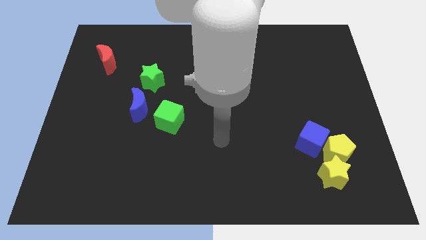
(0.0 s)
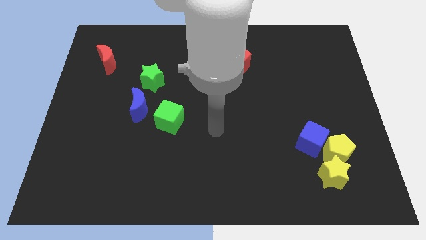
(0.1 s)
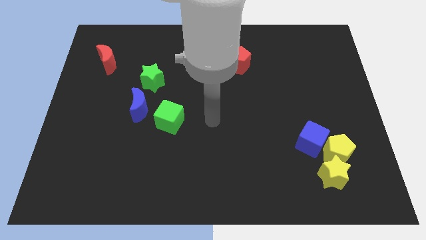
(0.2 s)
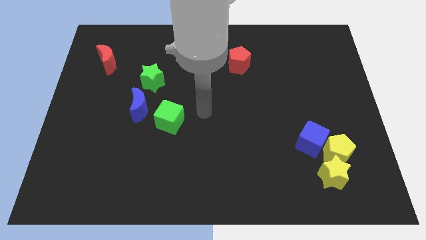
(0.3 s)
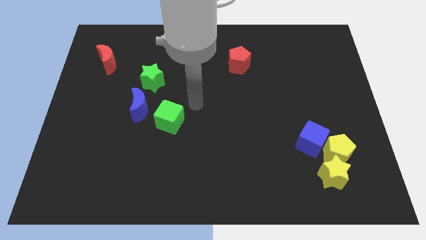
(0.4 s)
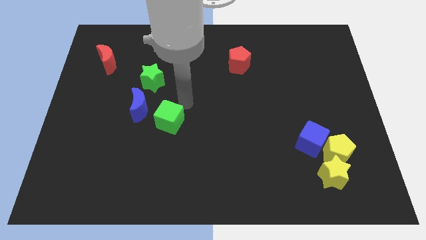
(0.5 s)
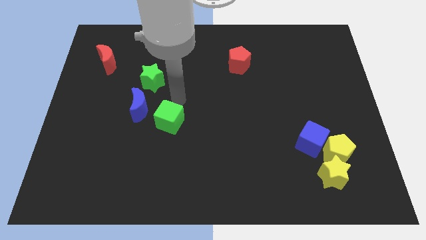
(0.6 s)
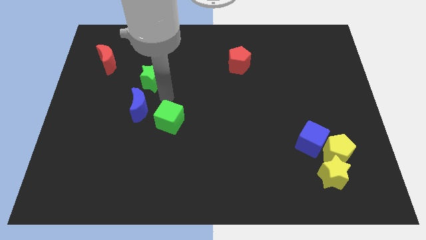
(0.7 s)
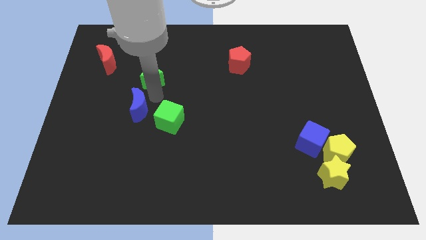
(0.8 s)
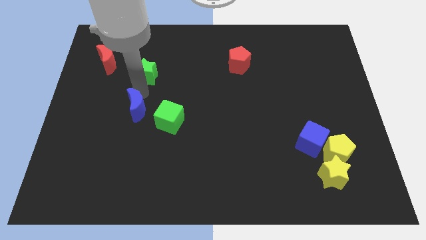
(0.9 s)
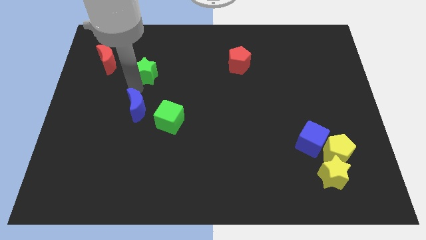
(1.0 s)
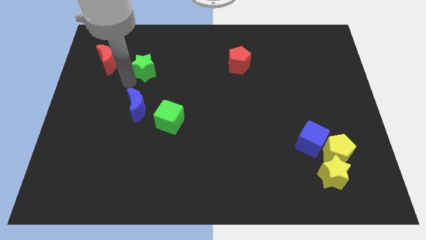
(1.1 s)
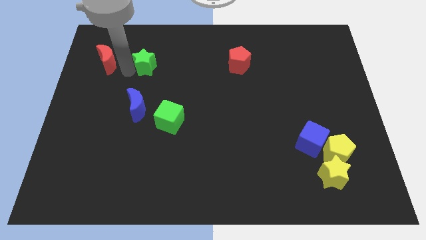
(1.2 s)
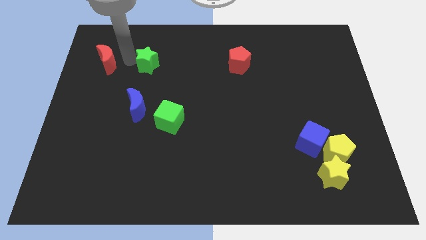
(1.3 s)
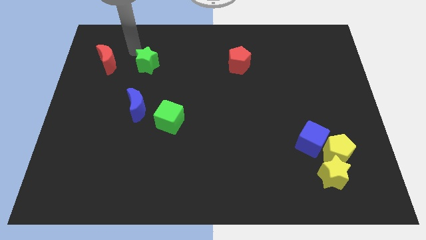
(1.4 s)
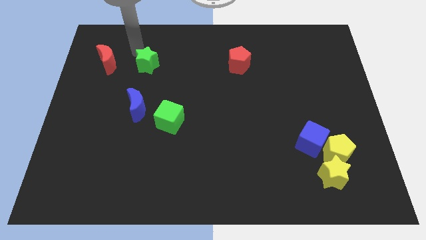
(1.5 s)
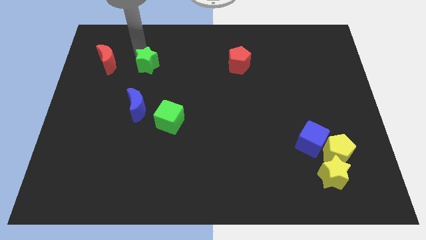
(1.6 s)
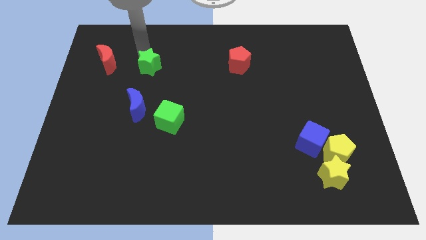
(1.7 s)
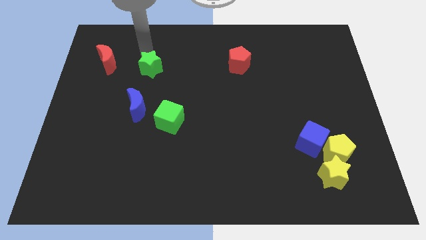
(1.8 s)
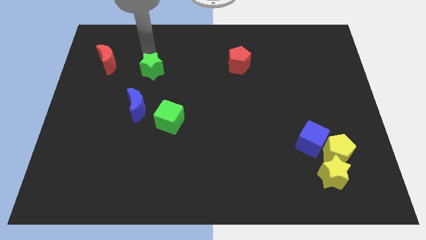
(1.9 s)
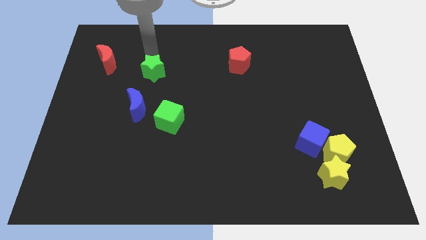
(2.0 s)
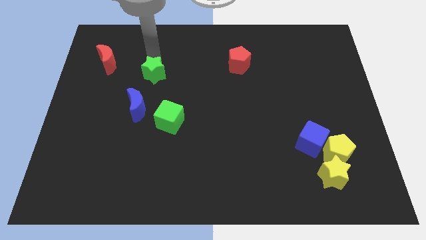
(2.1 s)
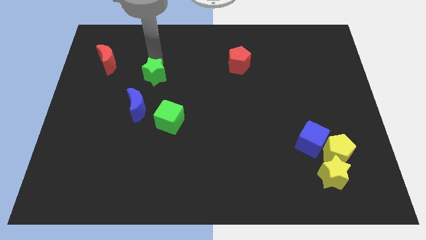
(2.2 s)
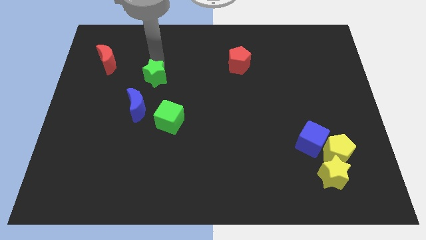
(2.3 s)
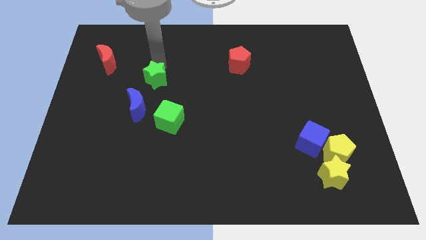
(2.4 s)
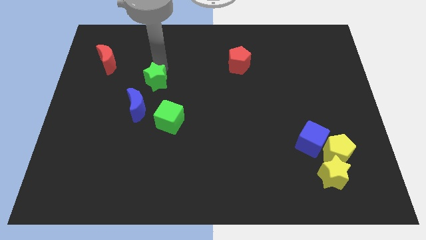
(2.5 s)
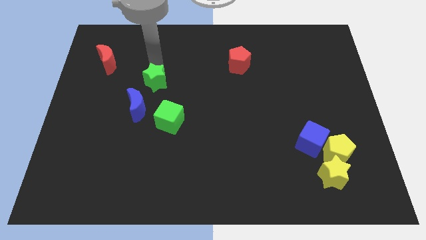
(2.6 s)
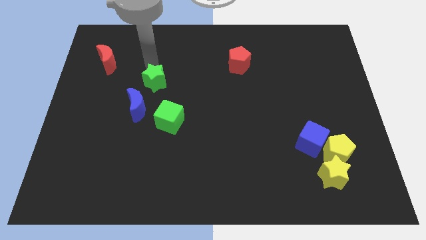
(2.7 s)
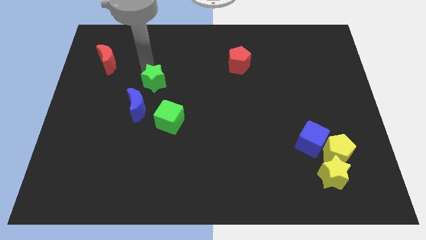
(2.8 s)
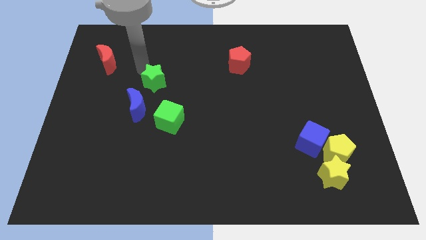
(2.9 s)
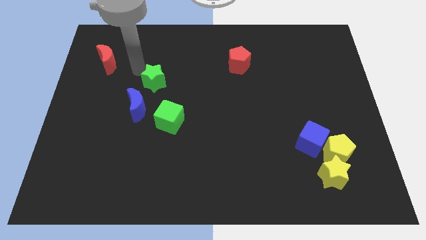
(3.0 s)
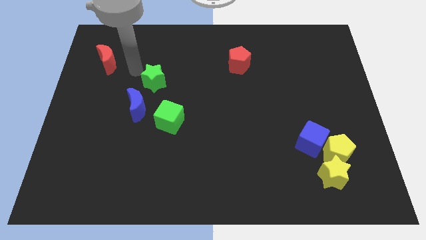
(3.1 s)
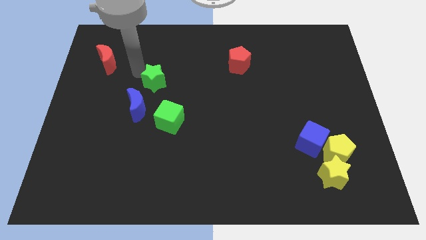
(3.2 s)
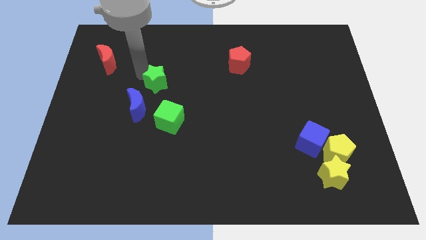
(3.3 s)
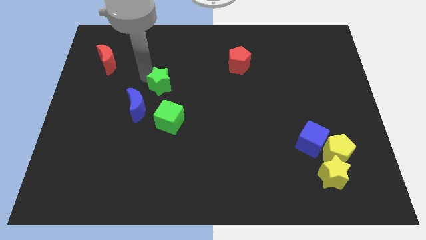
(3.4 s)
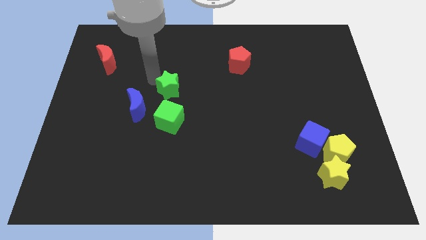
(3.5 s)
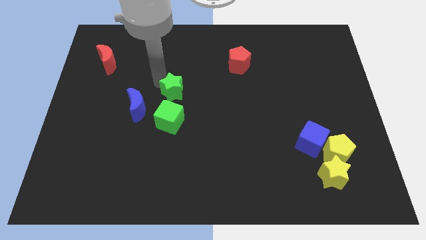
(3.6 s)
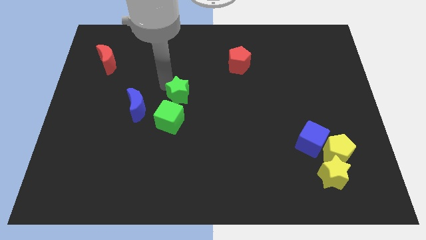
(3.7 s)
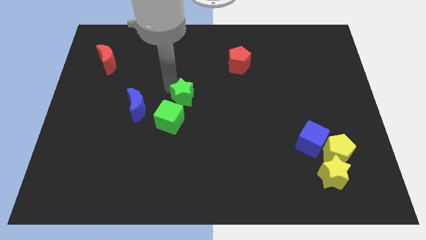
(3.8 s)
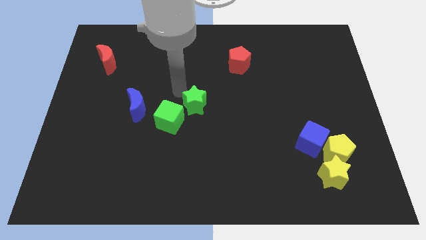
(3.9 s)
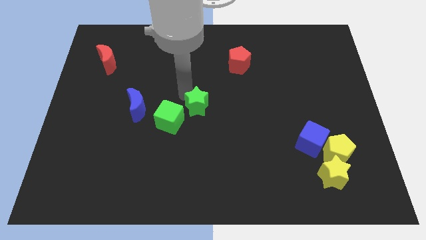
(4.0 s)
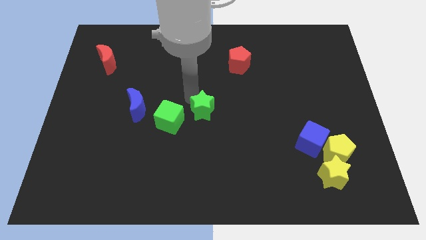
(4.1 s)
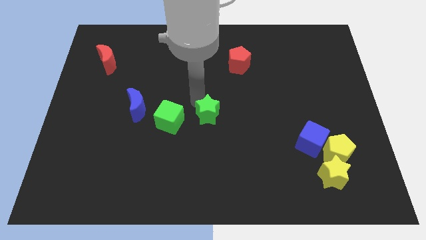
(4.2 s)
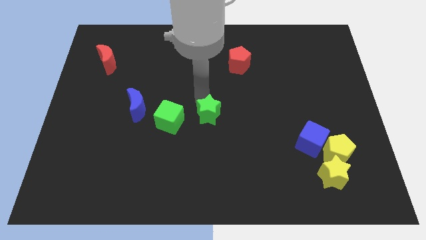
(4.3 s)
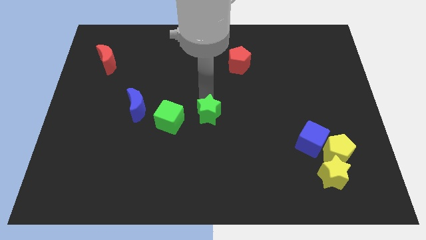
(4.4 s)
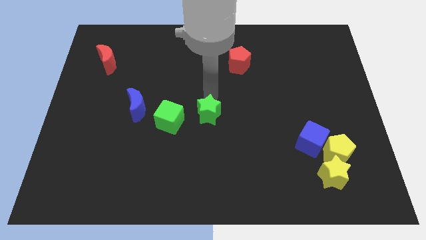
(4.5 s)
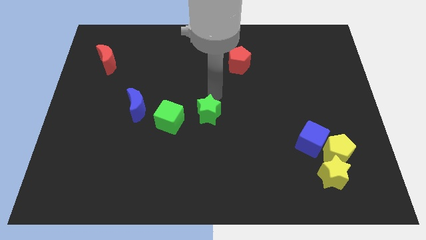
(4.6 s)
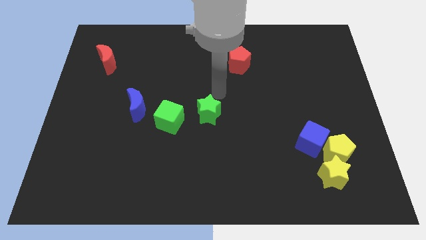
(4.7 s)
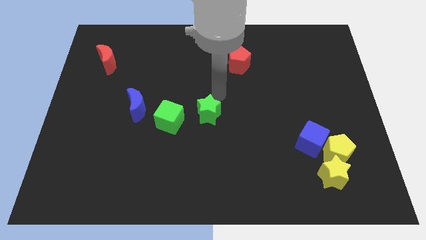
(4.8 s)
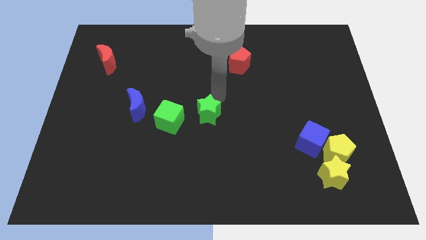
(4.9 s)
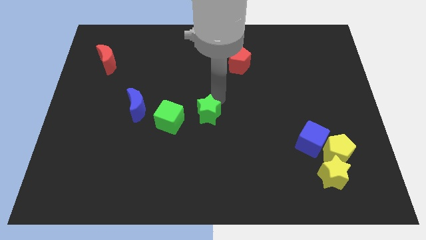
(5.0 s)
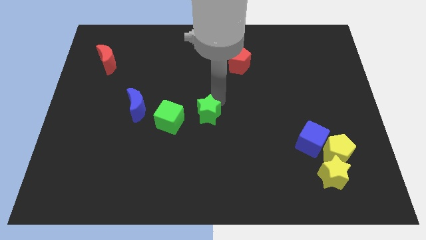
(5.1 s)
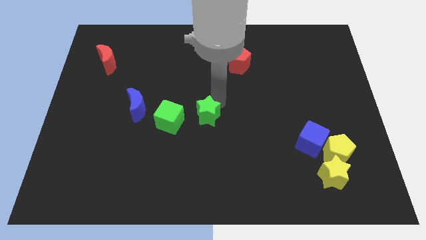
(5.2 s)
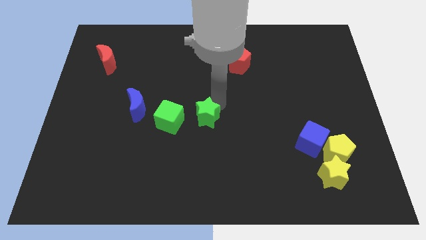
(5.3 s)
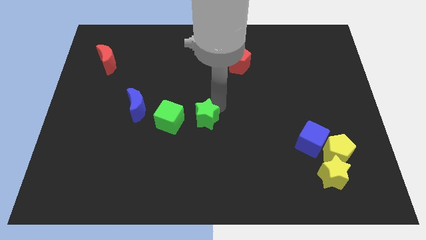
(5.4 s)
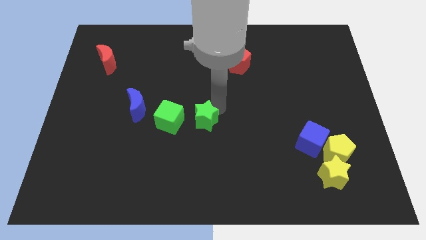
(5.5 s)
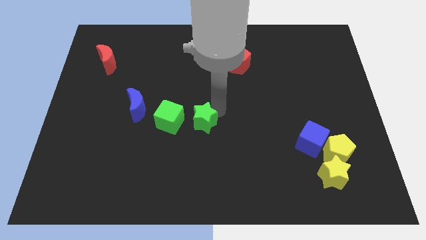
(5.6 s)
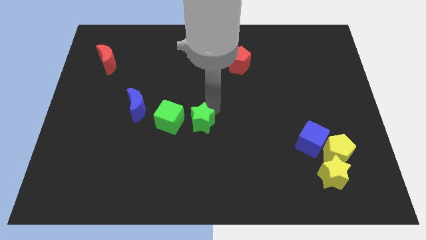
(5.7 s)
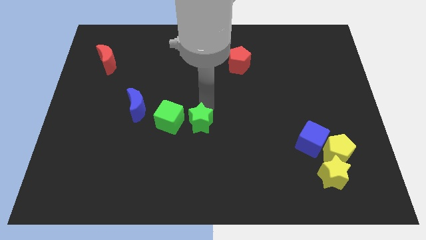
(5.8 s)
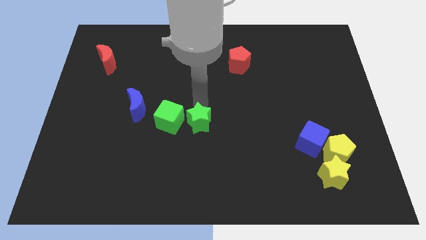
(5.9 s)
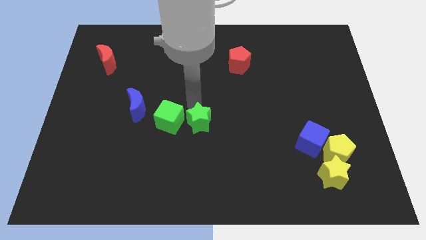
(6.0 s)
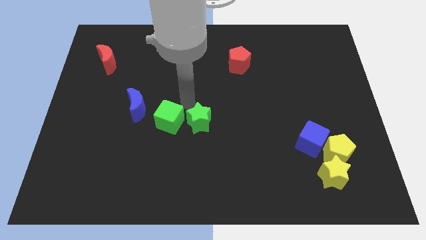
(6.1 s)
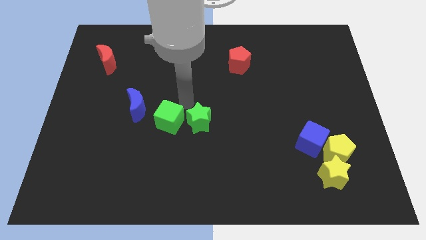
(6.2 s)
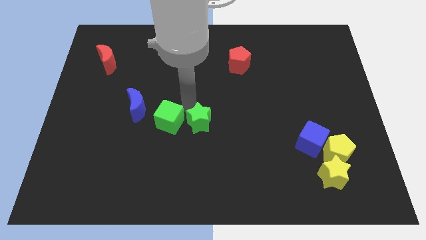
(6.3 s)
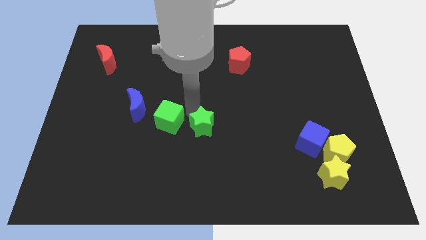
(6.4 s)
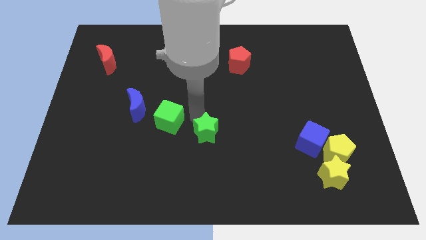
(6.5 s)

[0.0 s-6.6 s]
push the green star down and then right

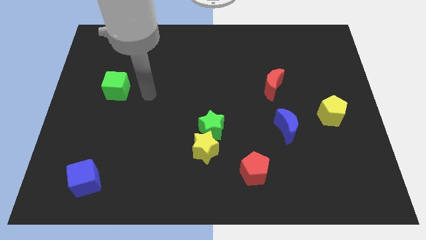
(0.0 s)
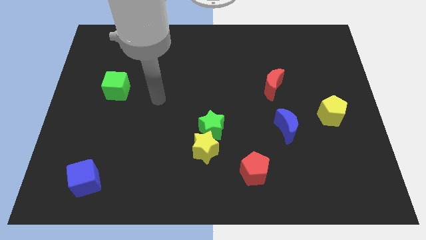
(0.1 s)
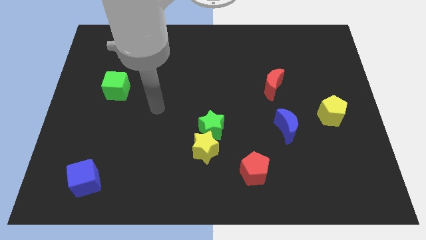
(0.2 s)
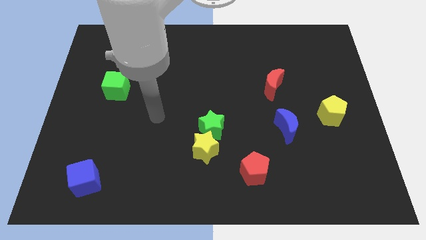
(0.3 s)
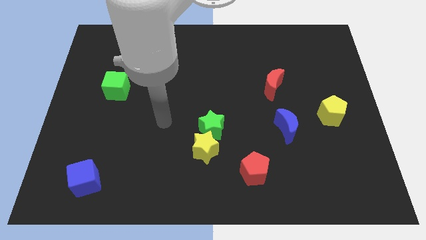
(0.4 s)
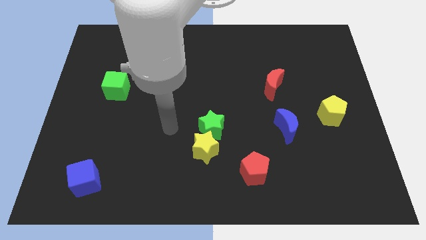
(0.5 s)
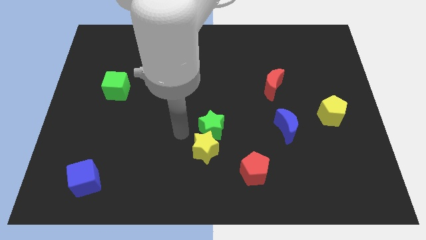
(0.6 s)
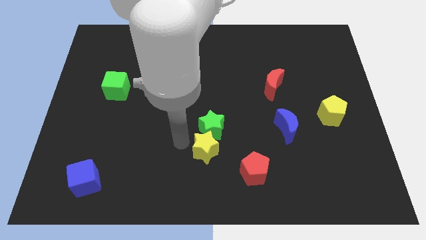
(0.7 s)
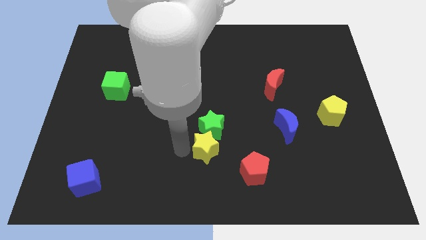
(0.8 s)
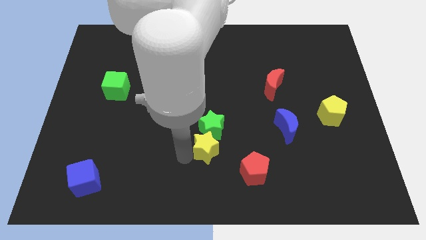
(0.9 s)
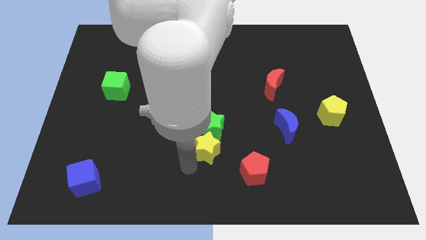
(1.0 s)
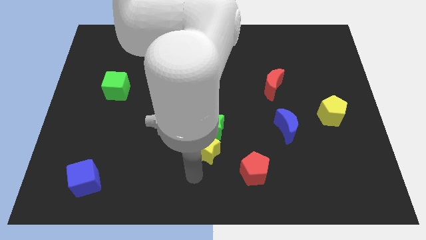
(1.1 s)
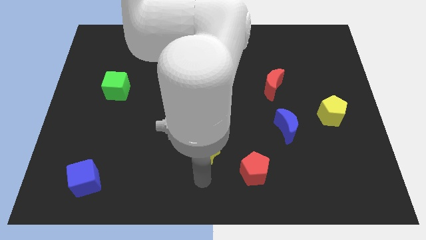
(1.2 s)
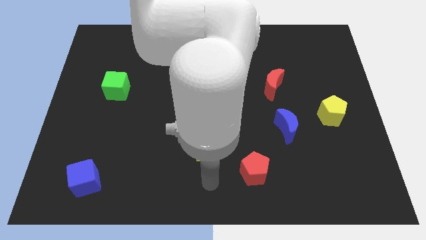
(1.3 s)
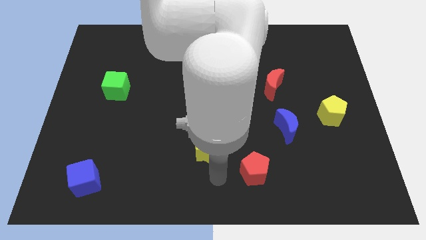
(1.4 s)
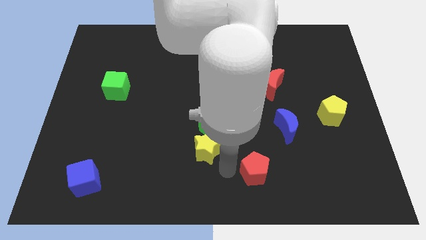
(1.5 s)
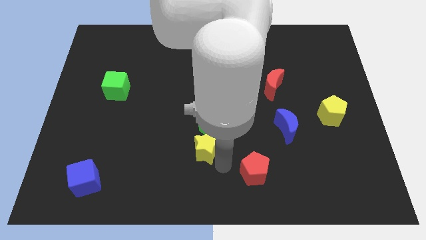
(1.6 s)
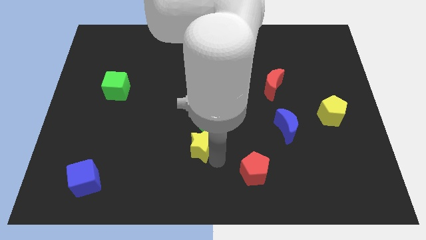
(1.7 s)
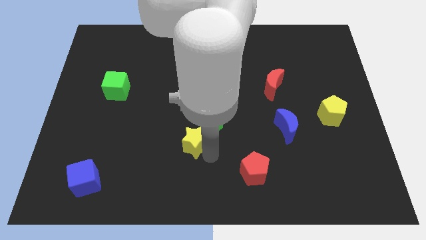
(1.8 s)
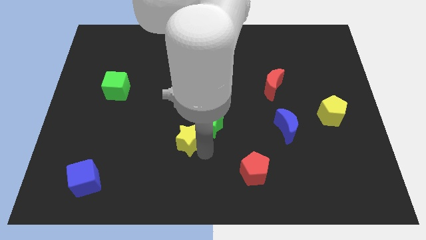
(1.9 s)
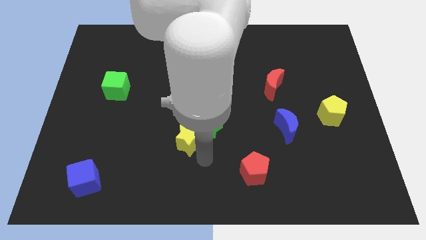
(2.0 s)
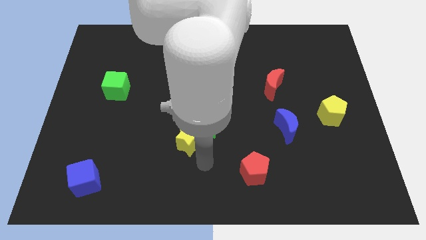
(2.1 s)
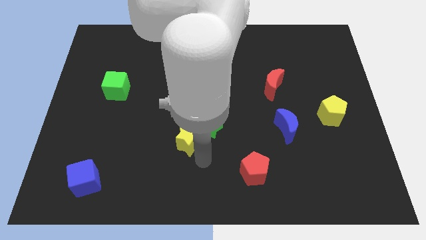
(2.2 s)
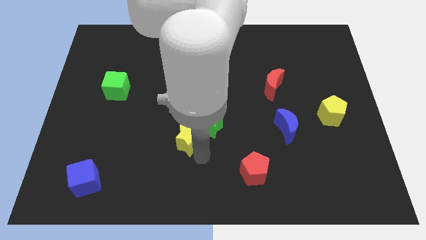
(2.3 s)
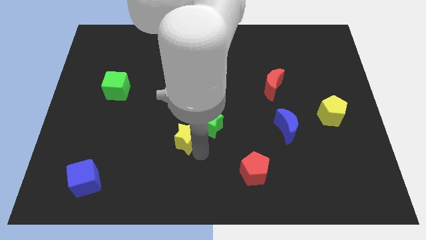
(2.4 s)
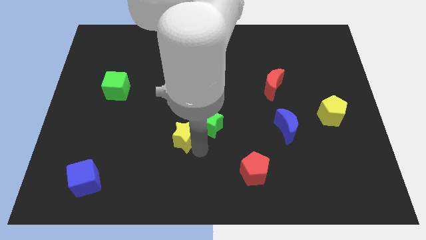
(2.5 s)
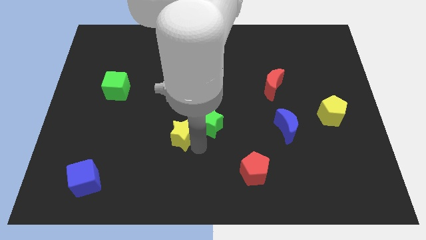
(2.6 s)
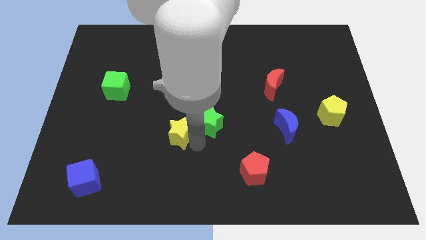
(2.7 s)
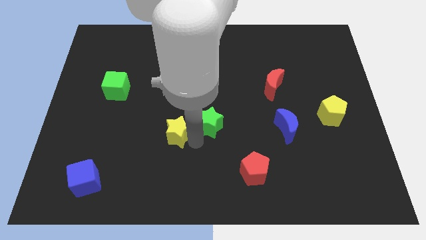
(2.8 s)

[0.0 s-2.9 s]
move the yellow star a little diagonally upwards and to the left
